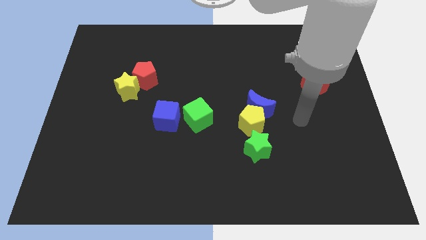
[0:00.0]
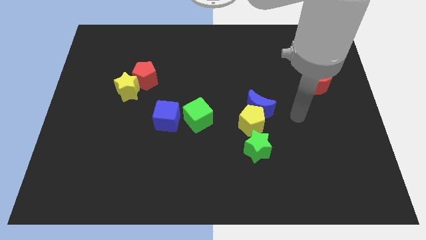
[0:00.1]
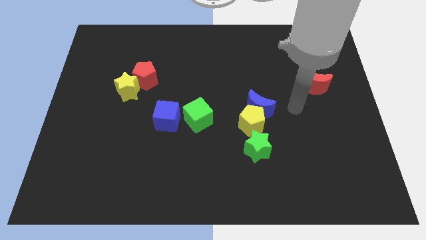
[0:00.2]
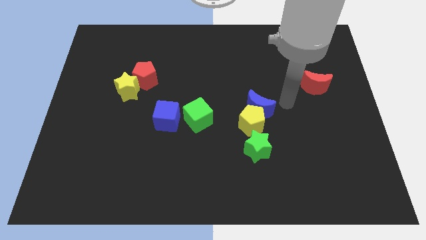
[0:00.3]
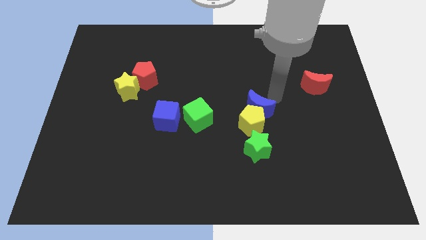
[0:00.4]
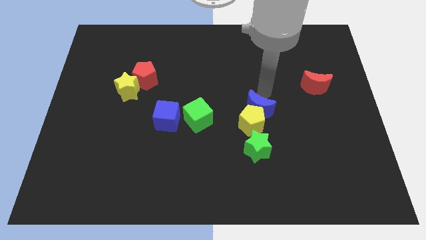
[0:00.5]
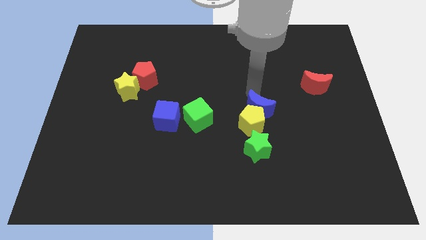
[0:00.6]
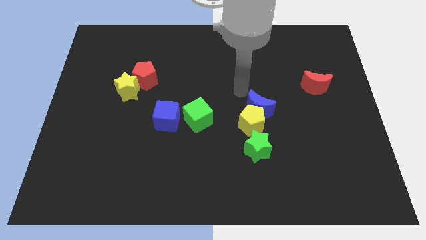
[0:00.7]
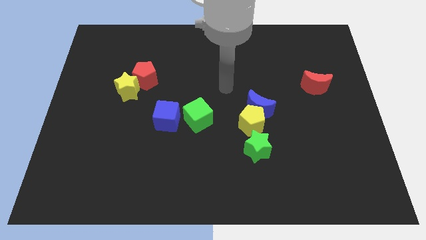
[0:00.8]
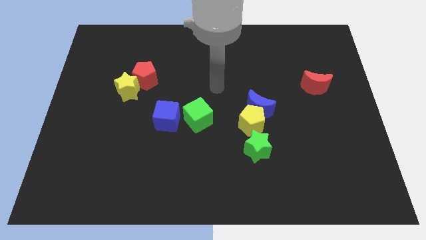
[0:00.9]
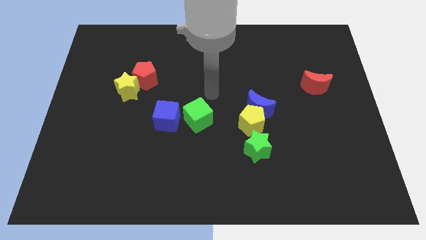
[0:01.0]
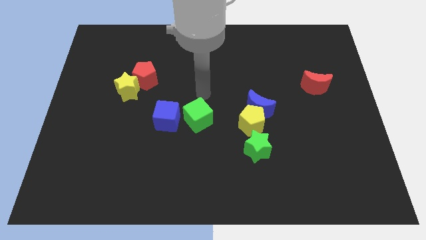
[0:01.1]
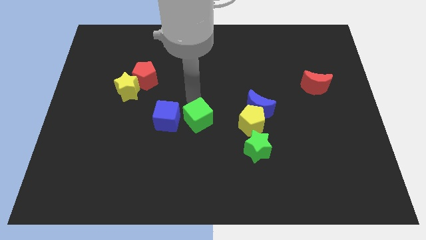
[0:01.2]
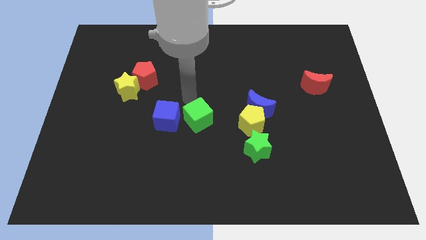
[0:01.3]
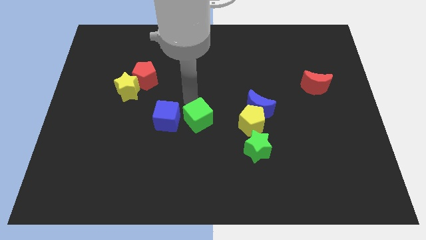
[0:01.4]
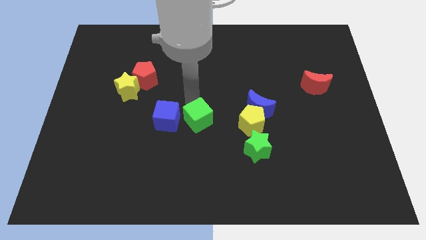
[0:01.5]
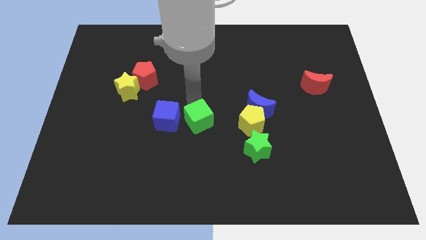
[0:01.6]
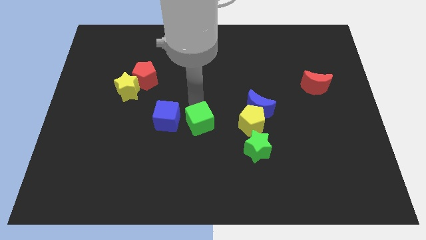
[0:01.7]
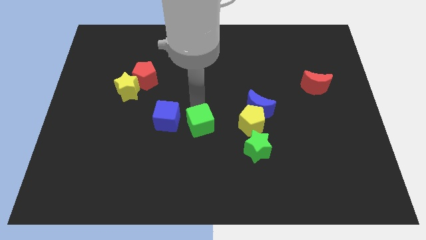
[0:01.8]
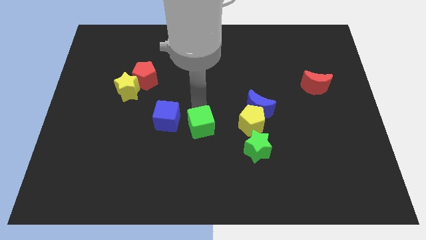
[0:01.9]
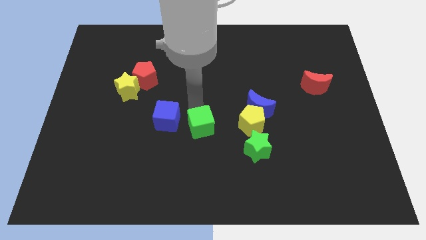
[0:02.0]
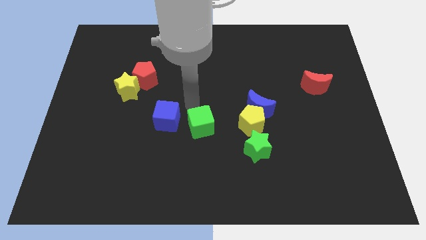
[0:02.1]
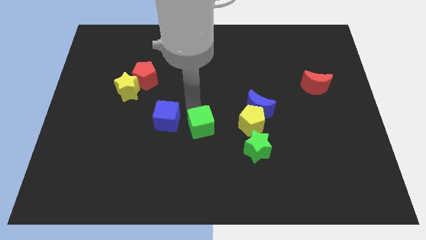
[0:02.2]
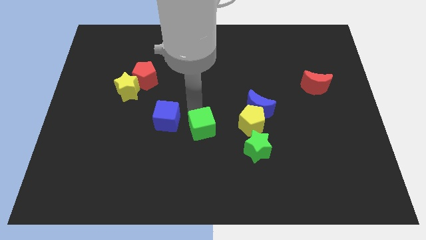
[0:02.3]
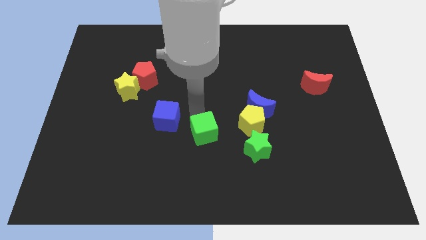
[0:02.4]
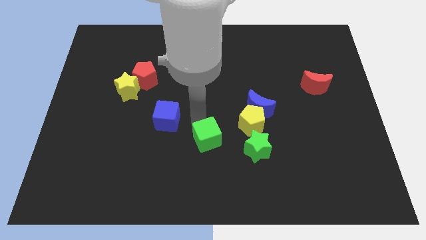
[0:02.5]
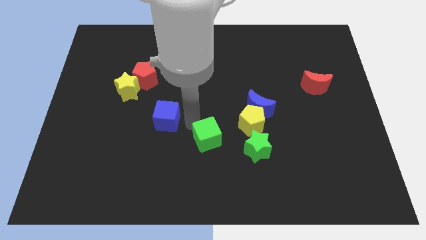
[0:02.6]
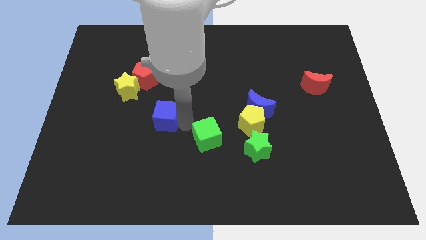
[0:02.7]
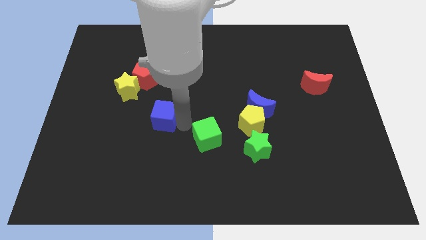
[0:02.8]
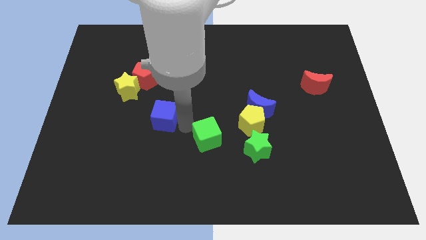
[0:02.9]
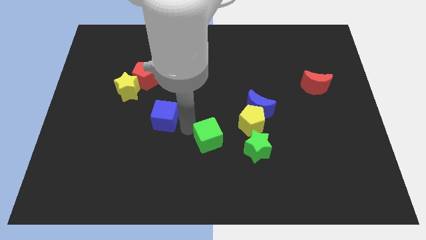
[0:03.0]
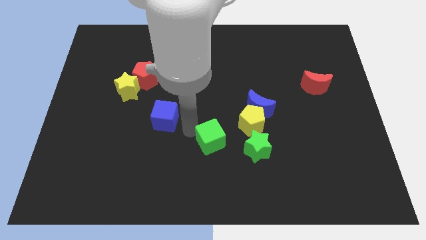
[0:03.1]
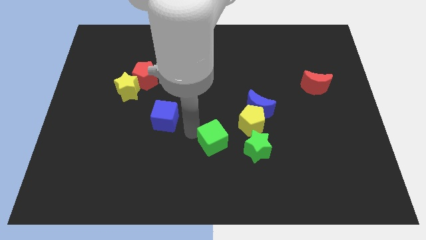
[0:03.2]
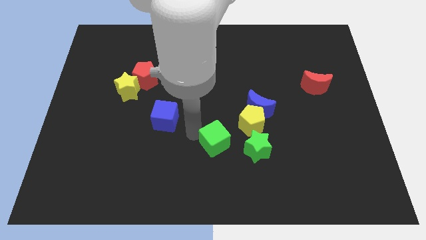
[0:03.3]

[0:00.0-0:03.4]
move the green cube diagonally down and right a bit

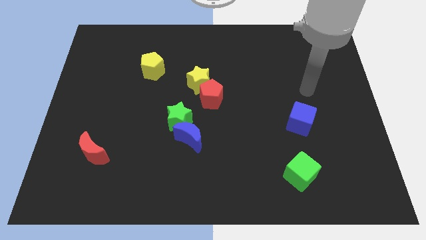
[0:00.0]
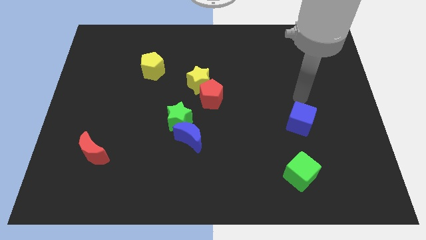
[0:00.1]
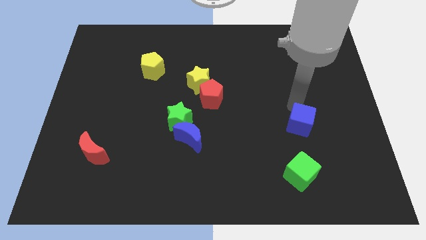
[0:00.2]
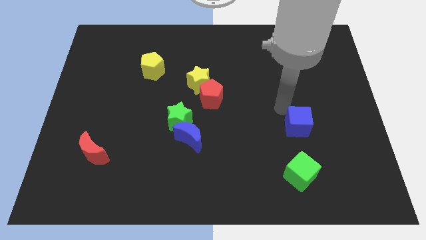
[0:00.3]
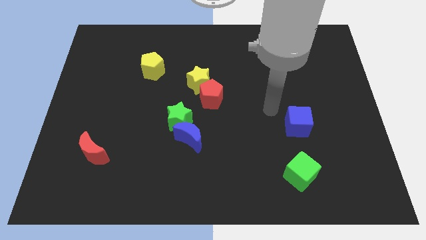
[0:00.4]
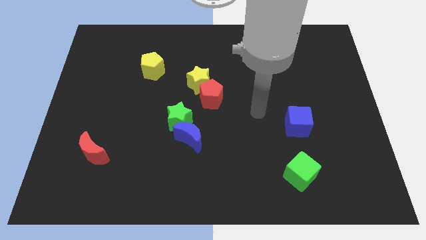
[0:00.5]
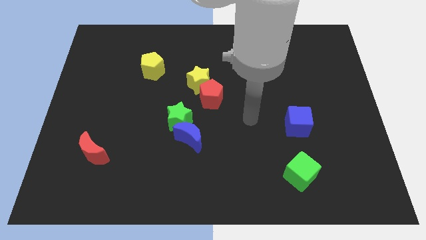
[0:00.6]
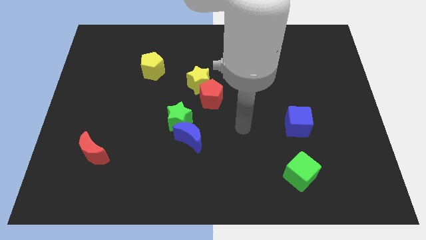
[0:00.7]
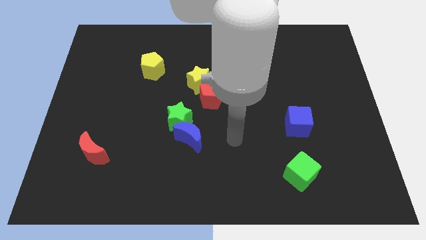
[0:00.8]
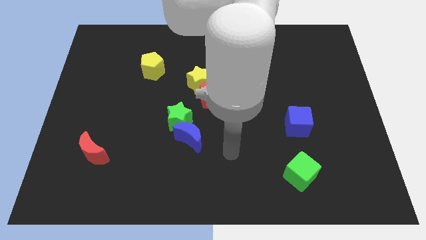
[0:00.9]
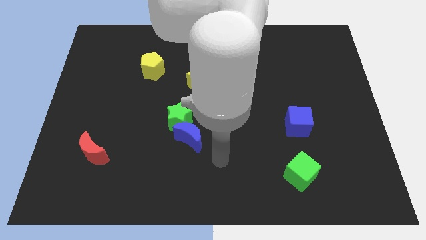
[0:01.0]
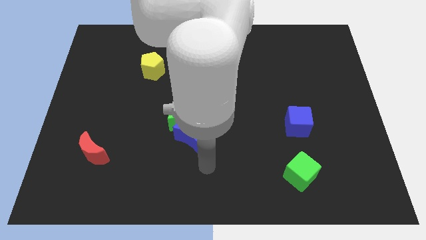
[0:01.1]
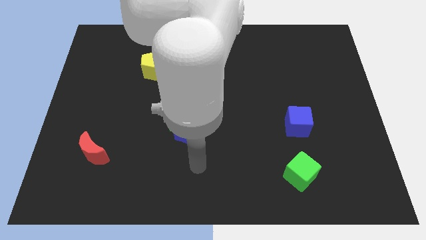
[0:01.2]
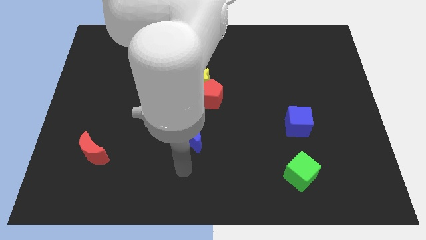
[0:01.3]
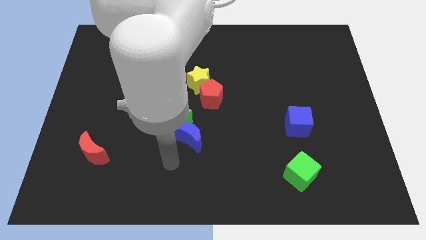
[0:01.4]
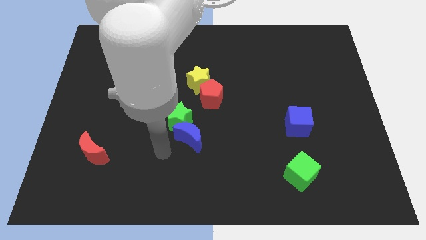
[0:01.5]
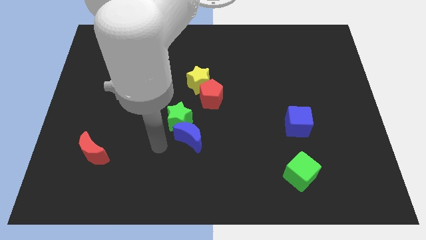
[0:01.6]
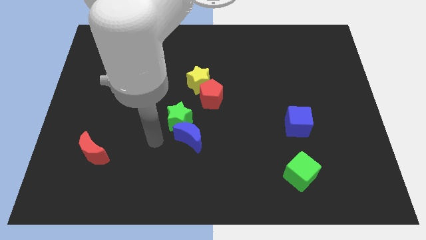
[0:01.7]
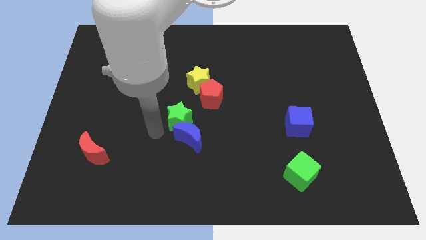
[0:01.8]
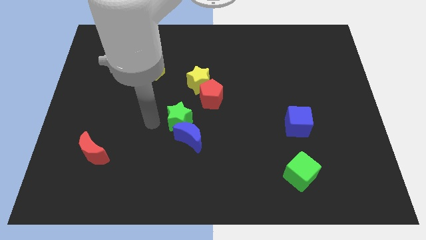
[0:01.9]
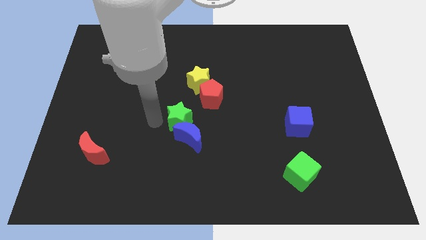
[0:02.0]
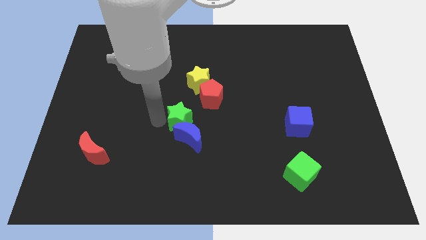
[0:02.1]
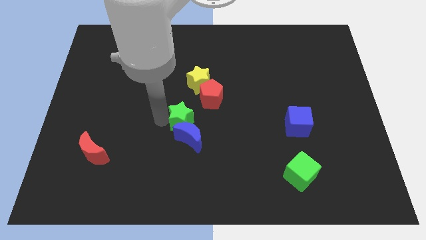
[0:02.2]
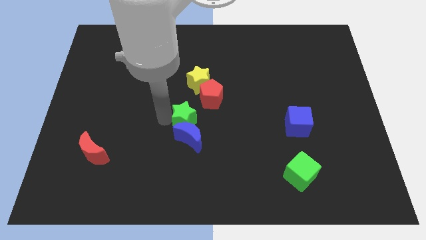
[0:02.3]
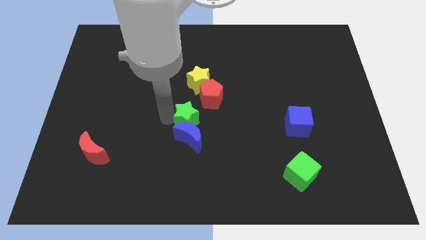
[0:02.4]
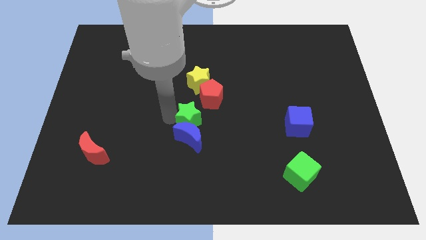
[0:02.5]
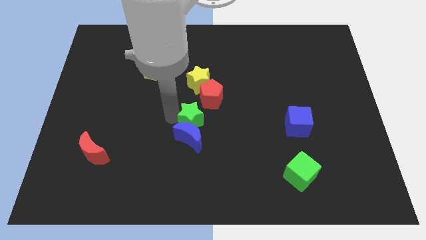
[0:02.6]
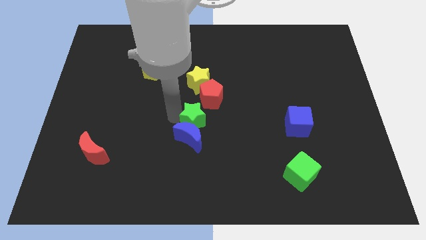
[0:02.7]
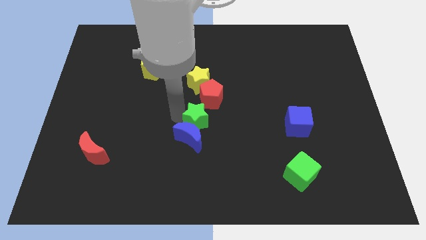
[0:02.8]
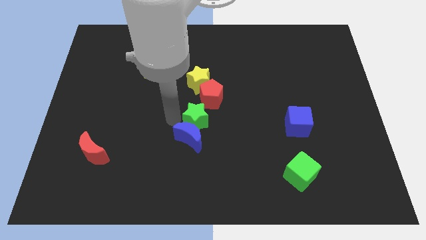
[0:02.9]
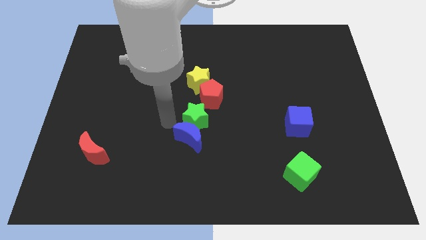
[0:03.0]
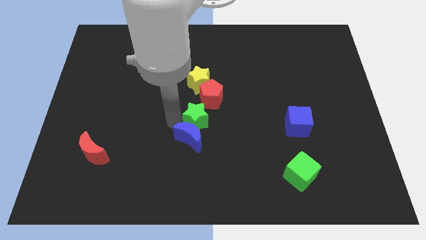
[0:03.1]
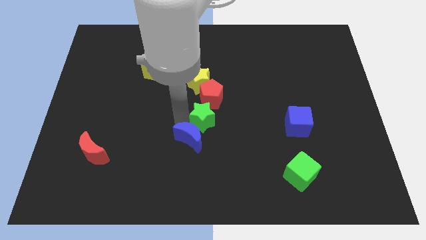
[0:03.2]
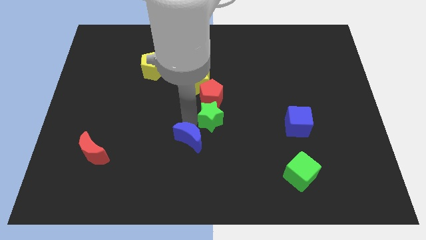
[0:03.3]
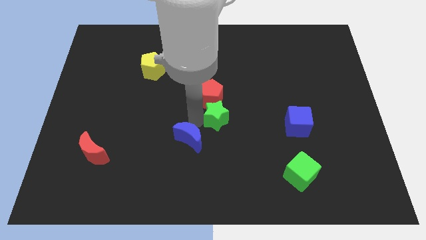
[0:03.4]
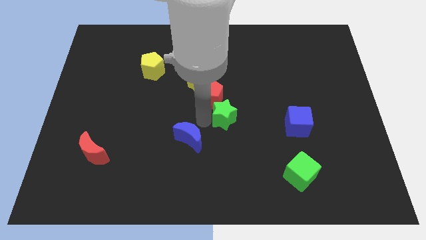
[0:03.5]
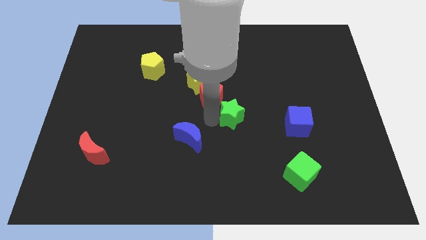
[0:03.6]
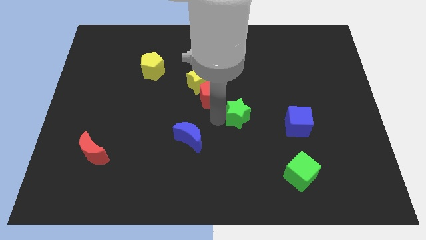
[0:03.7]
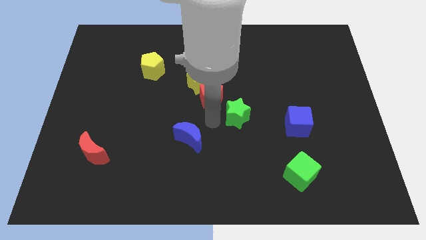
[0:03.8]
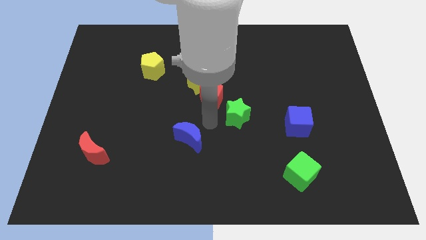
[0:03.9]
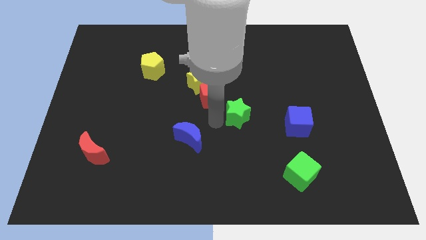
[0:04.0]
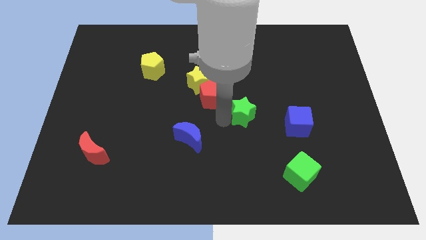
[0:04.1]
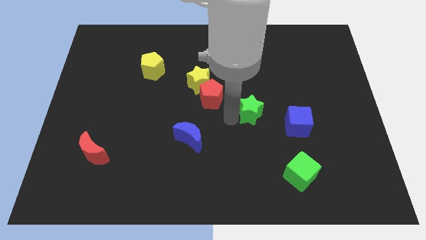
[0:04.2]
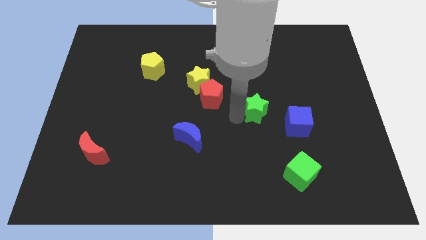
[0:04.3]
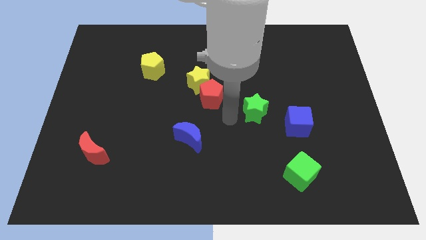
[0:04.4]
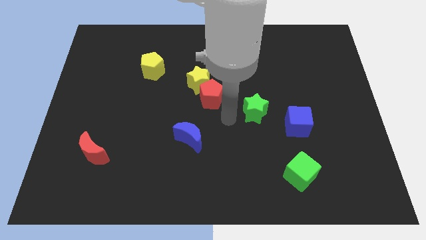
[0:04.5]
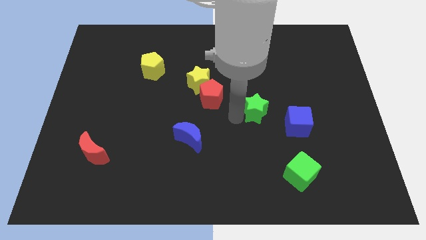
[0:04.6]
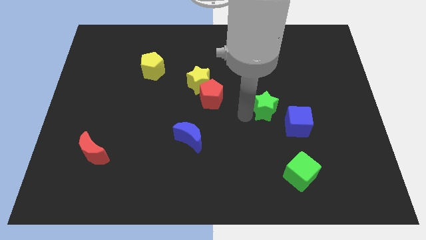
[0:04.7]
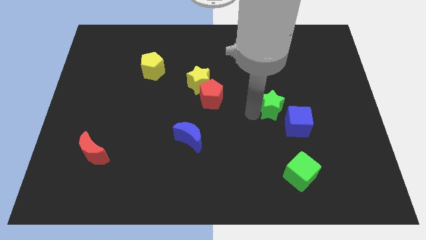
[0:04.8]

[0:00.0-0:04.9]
push the green star to the right
